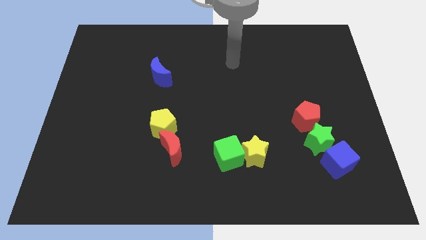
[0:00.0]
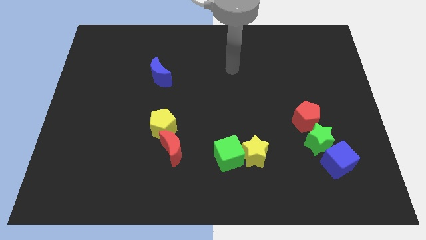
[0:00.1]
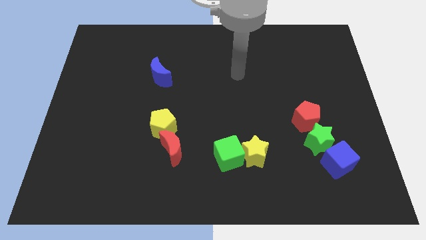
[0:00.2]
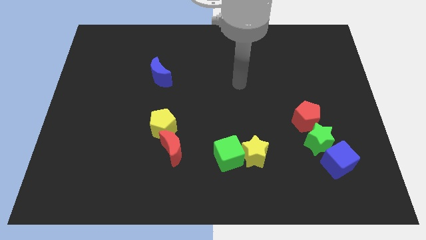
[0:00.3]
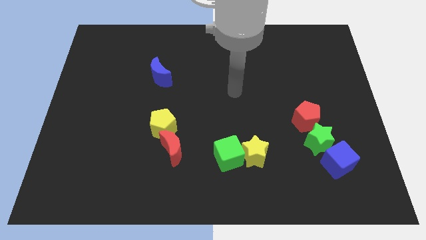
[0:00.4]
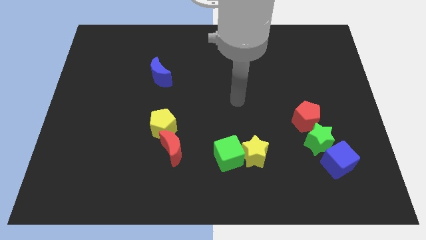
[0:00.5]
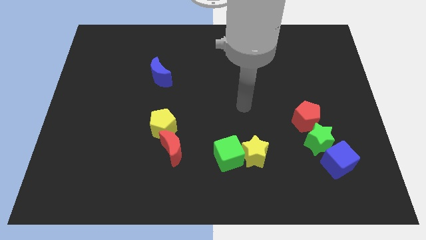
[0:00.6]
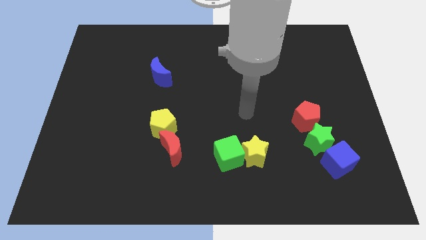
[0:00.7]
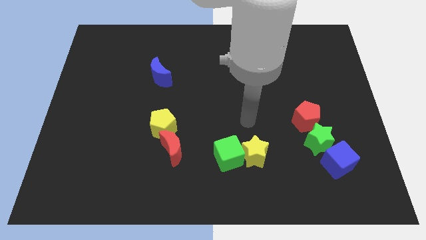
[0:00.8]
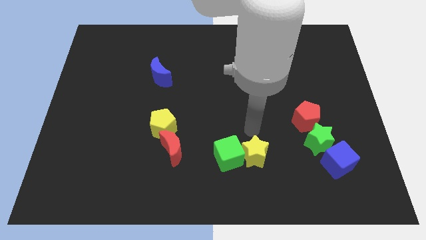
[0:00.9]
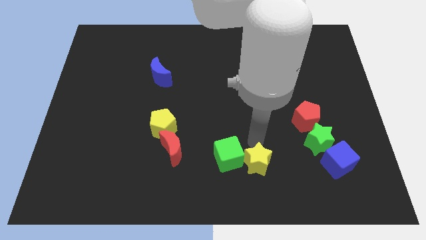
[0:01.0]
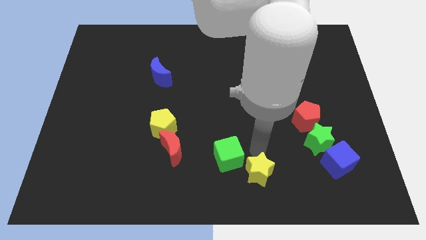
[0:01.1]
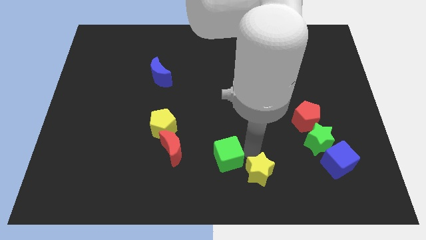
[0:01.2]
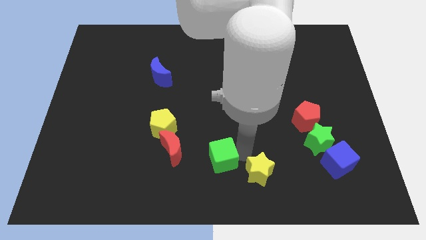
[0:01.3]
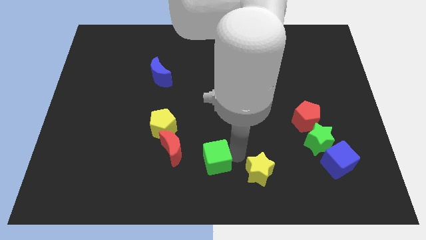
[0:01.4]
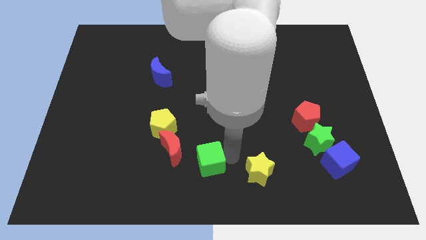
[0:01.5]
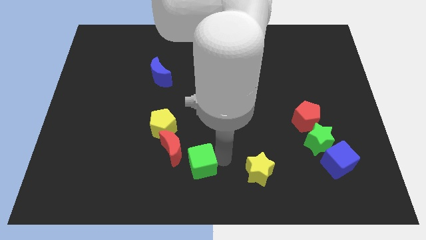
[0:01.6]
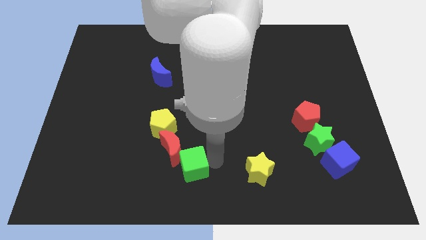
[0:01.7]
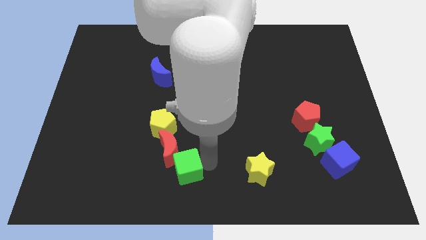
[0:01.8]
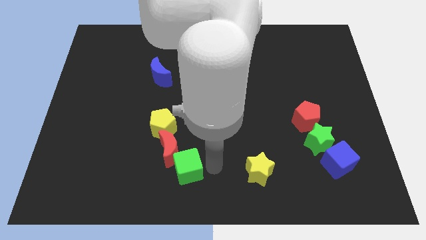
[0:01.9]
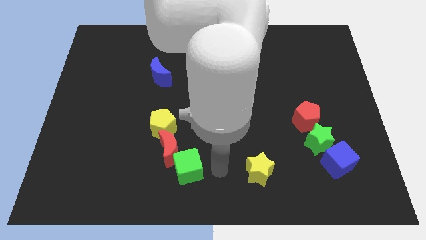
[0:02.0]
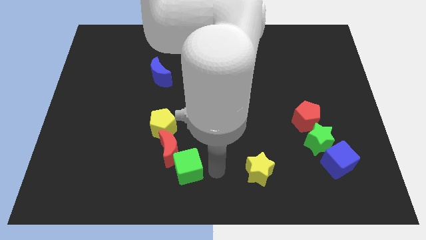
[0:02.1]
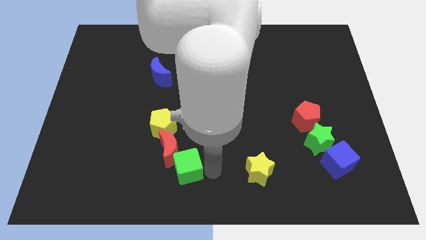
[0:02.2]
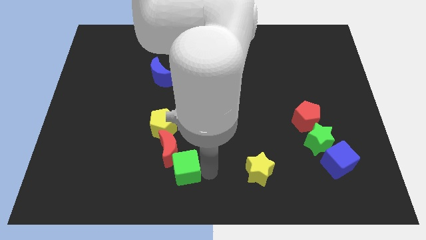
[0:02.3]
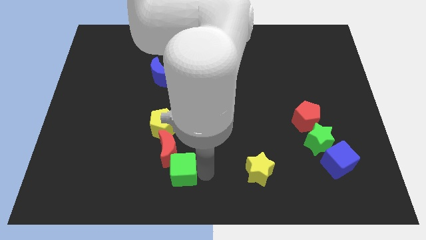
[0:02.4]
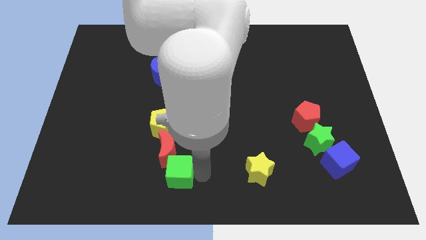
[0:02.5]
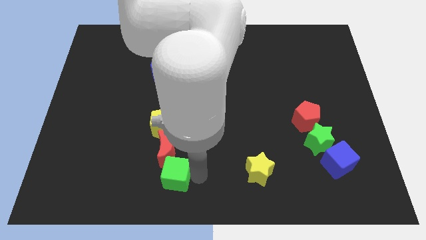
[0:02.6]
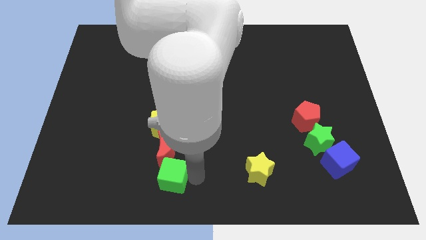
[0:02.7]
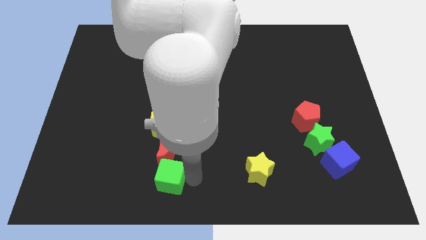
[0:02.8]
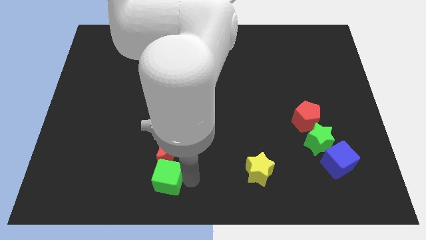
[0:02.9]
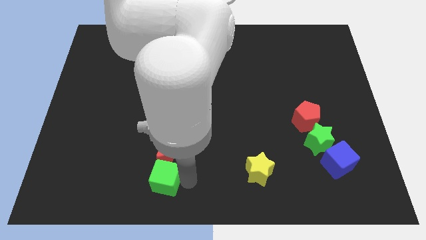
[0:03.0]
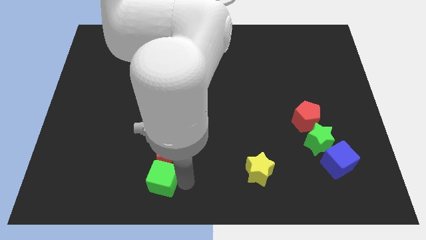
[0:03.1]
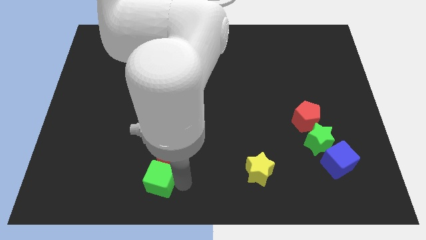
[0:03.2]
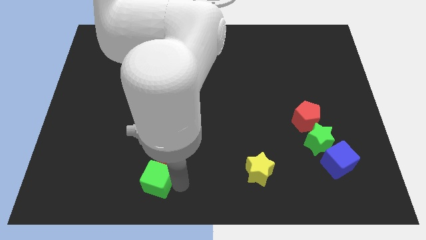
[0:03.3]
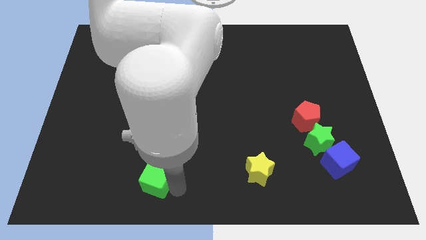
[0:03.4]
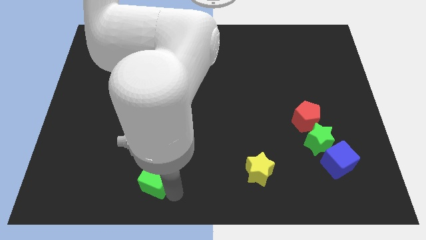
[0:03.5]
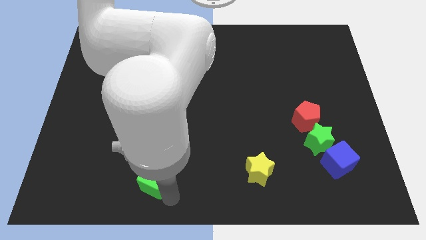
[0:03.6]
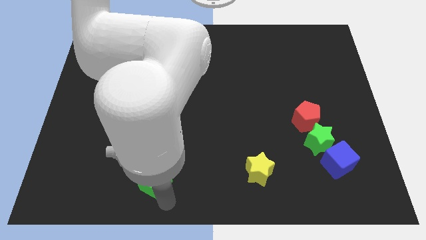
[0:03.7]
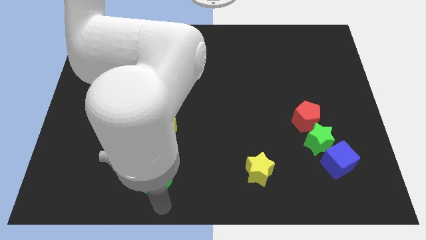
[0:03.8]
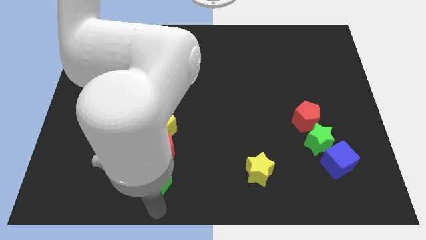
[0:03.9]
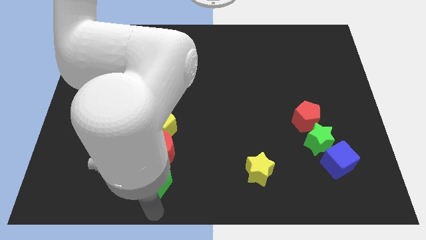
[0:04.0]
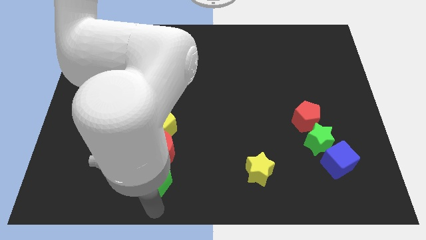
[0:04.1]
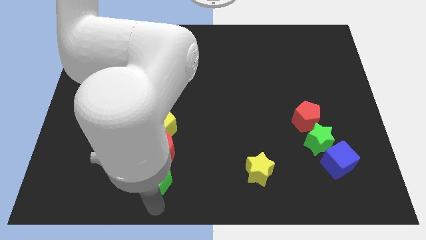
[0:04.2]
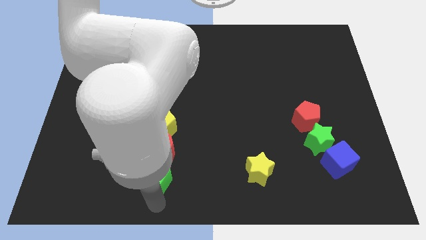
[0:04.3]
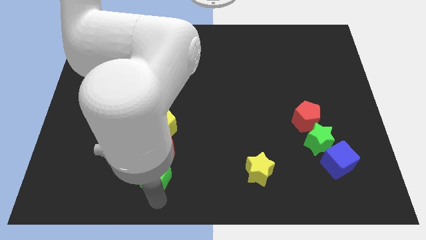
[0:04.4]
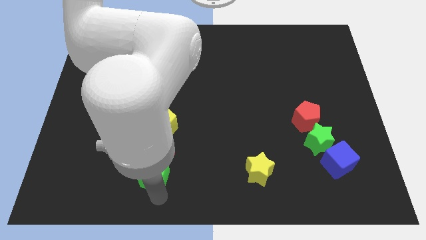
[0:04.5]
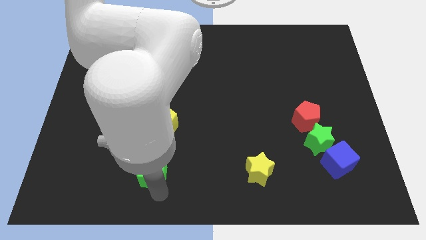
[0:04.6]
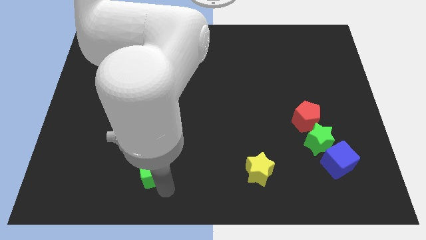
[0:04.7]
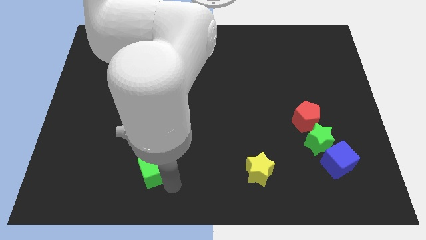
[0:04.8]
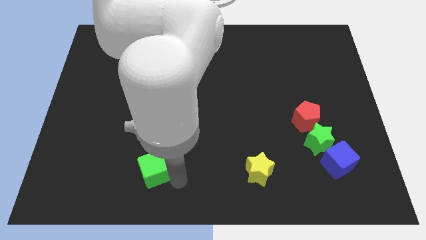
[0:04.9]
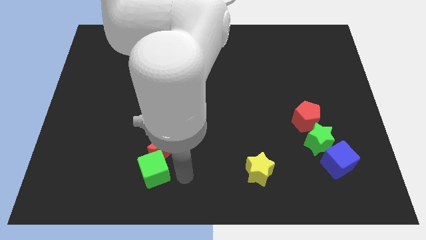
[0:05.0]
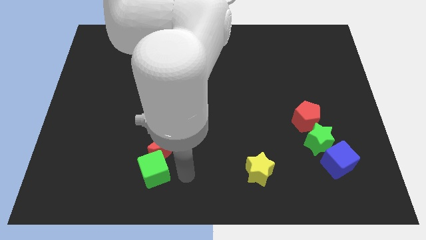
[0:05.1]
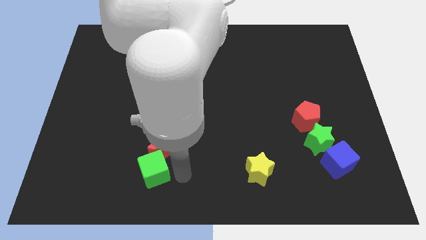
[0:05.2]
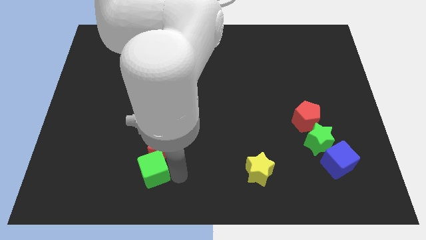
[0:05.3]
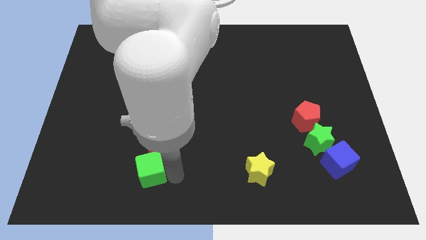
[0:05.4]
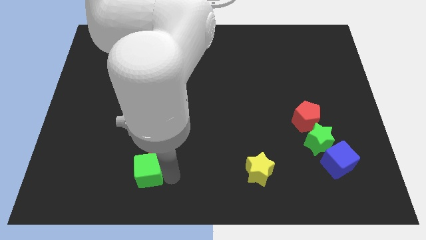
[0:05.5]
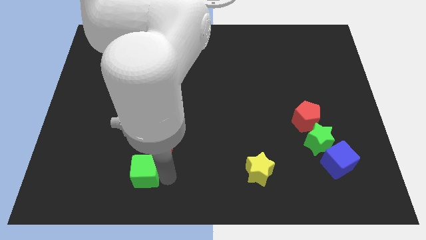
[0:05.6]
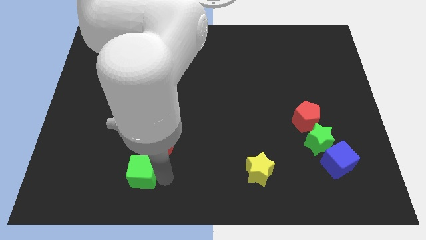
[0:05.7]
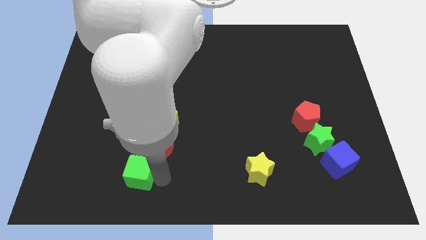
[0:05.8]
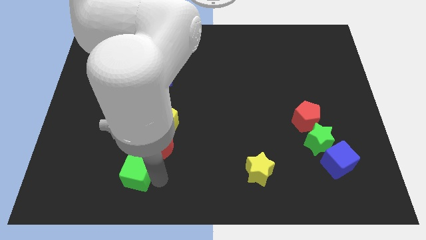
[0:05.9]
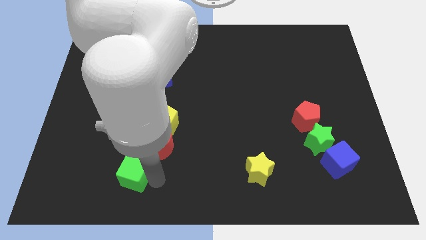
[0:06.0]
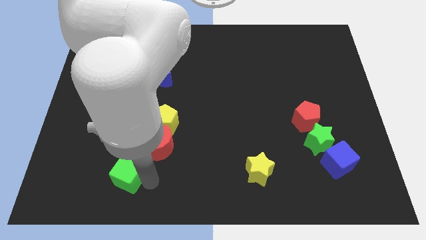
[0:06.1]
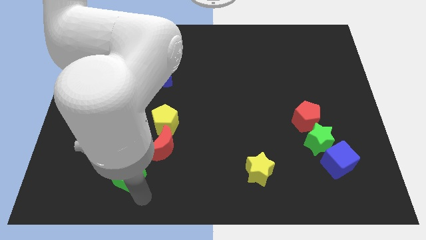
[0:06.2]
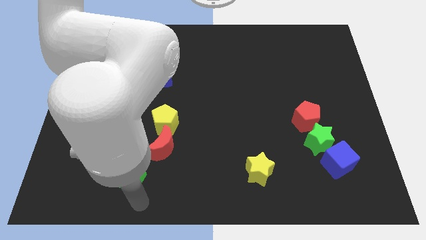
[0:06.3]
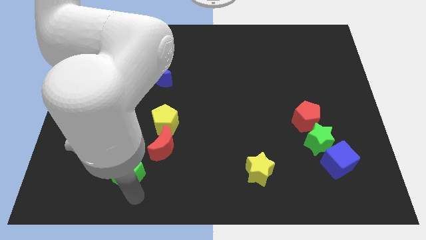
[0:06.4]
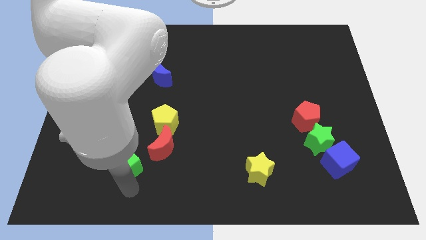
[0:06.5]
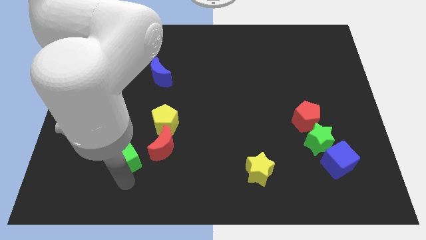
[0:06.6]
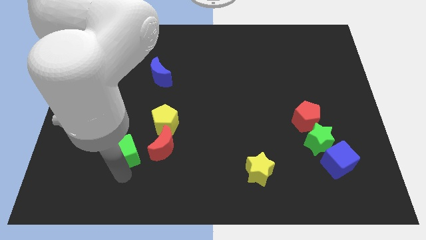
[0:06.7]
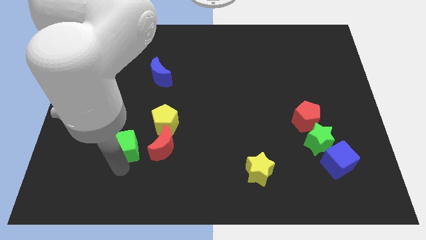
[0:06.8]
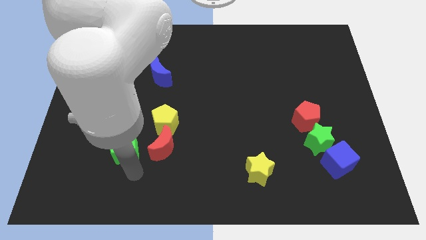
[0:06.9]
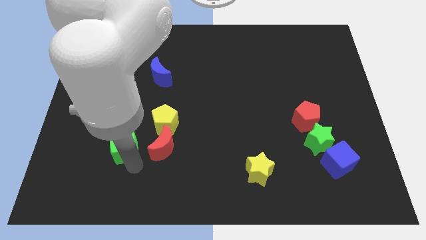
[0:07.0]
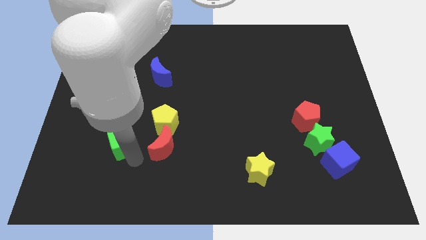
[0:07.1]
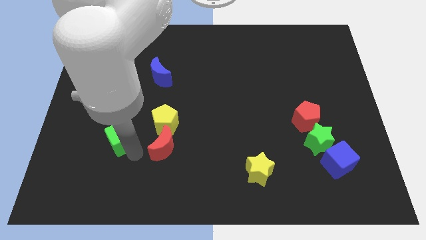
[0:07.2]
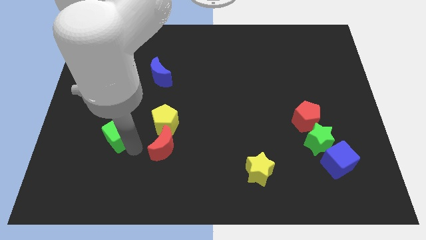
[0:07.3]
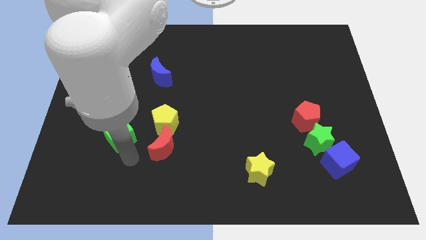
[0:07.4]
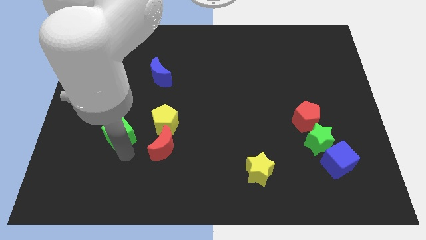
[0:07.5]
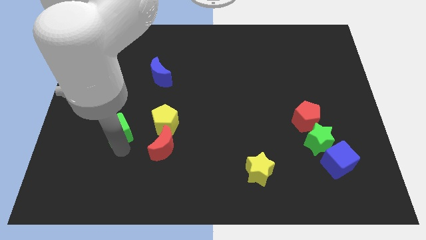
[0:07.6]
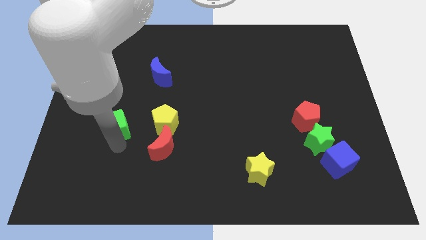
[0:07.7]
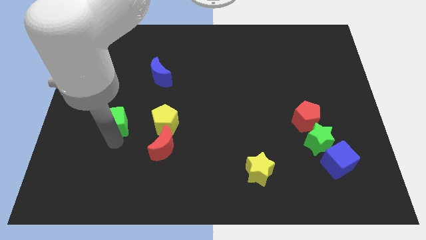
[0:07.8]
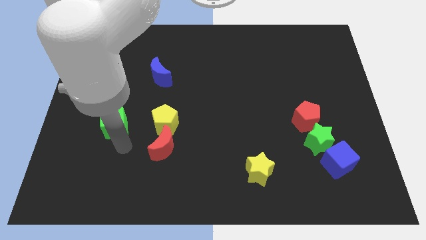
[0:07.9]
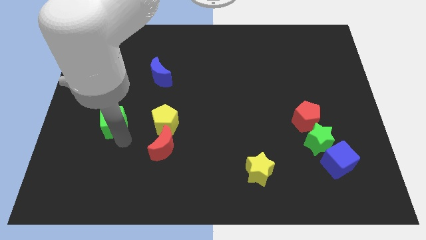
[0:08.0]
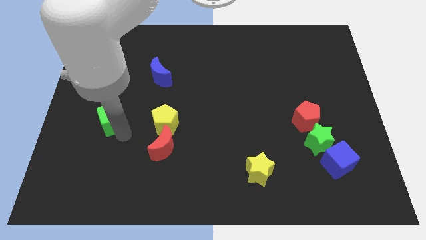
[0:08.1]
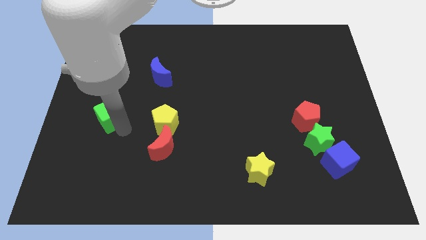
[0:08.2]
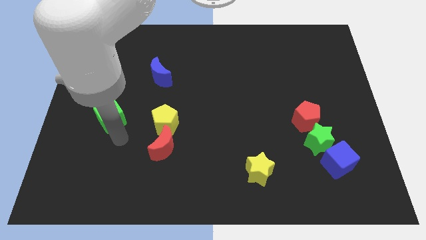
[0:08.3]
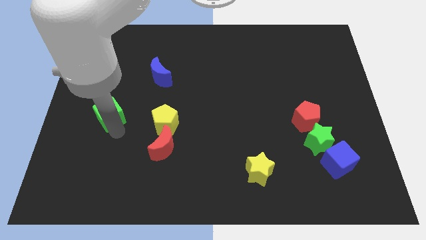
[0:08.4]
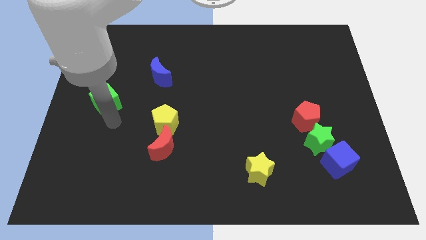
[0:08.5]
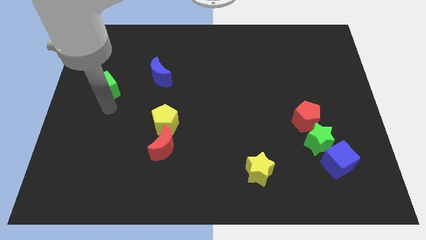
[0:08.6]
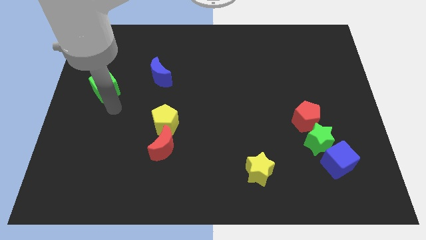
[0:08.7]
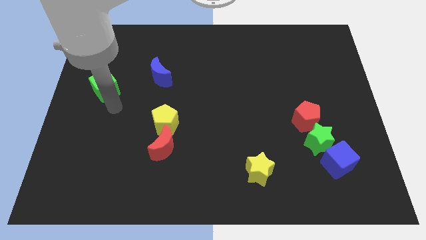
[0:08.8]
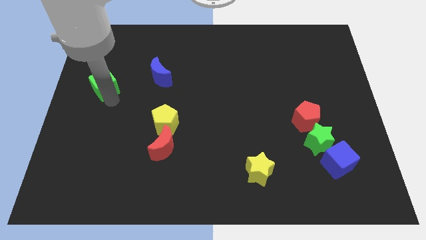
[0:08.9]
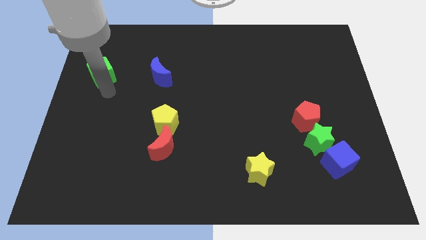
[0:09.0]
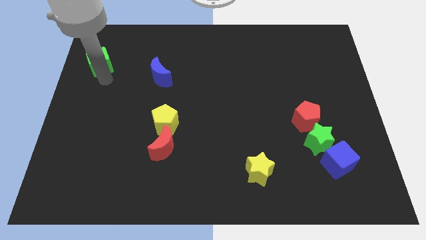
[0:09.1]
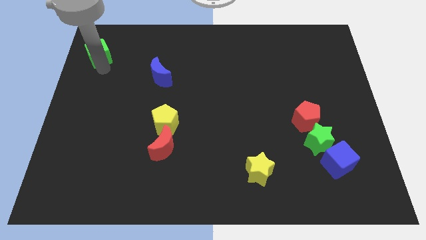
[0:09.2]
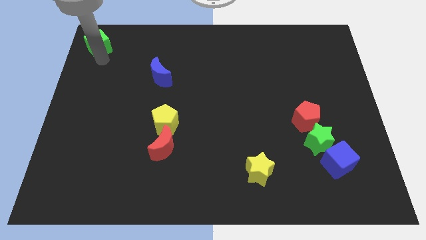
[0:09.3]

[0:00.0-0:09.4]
move the green cube to the top left
